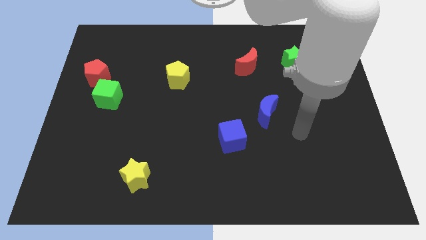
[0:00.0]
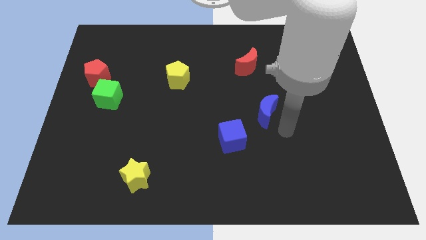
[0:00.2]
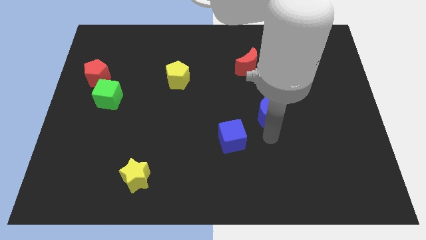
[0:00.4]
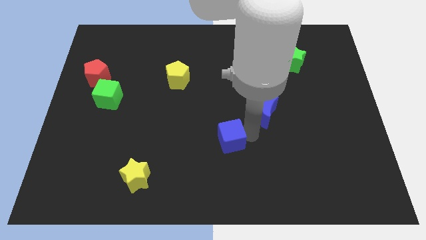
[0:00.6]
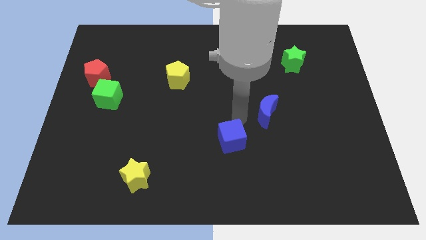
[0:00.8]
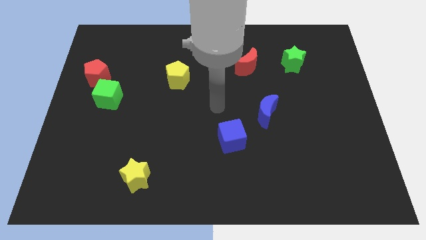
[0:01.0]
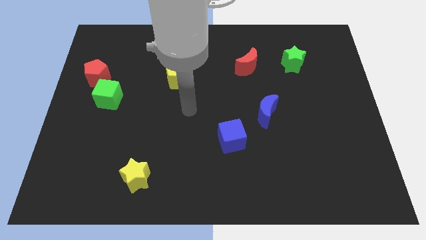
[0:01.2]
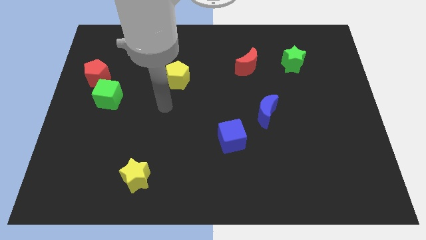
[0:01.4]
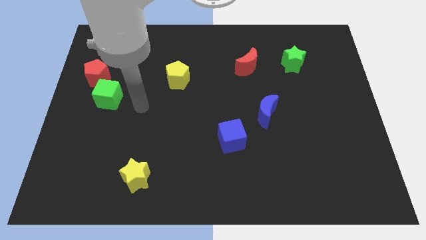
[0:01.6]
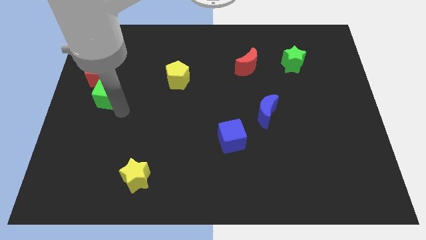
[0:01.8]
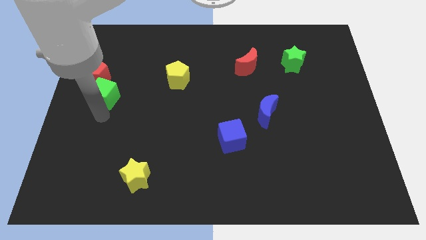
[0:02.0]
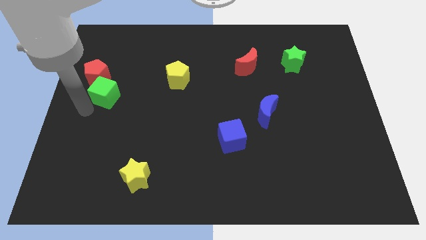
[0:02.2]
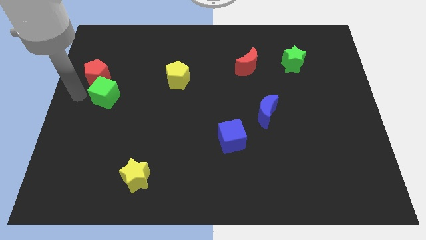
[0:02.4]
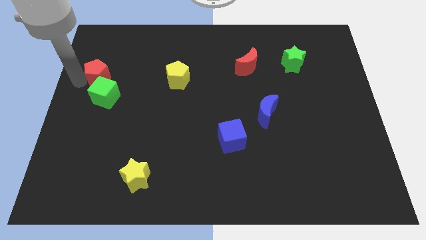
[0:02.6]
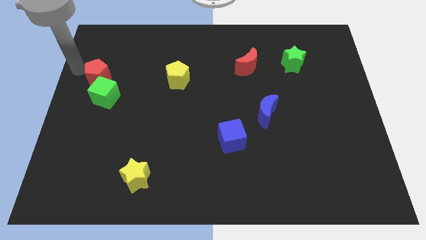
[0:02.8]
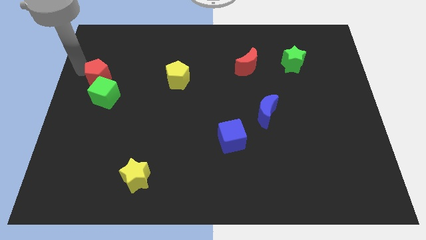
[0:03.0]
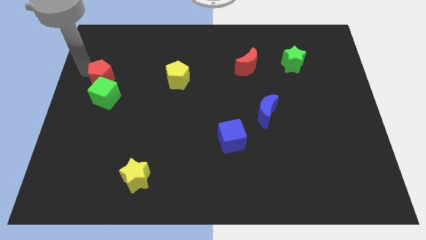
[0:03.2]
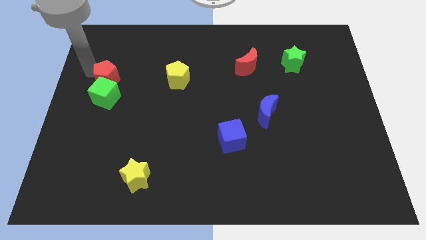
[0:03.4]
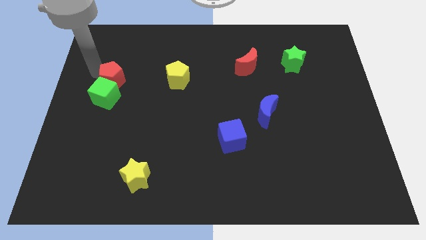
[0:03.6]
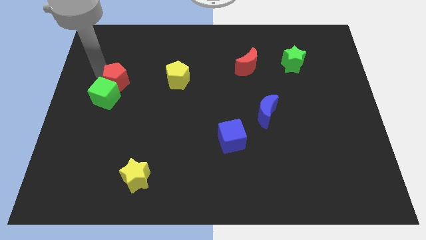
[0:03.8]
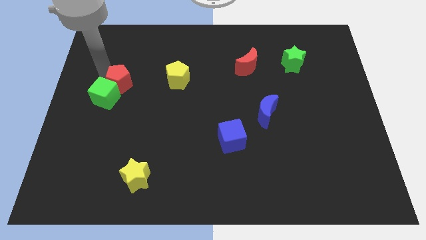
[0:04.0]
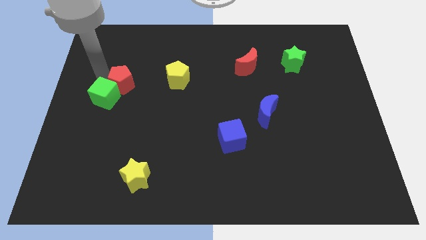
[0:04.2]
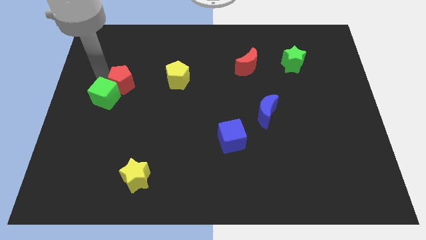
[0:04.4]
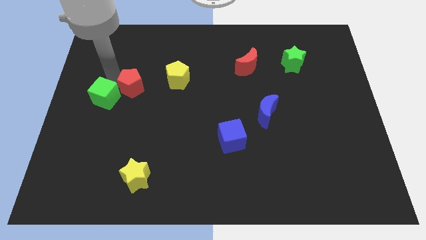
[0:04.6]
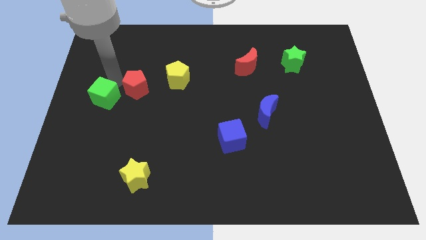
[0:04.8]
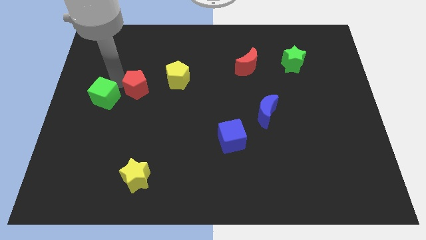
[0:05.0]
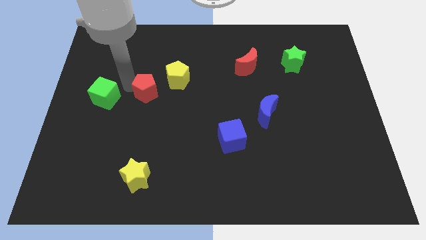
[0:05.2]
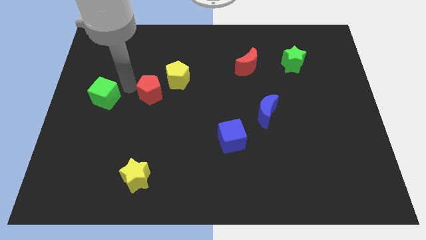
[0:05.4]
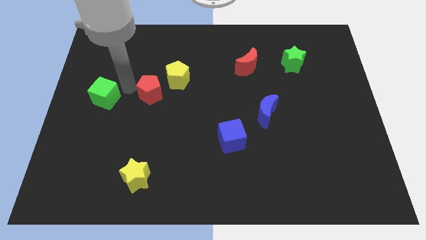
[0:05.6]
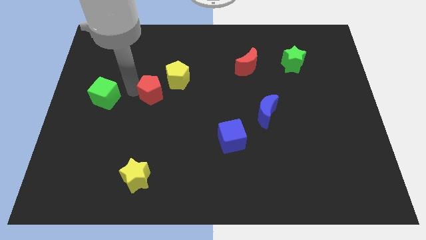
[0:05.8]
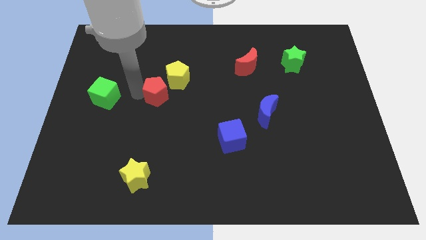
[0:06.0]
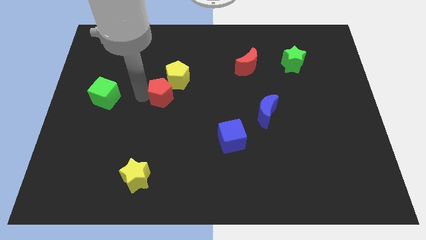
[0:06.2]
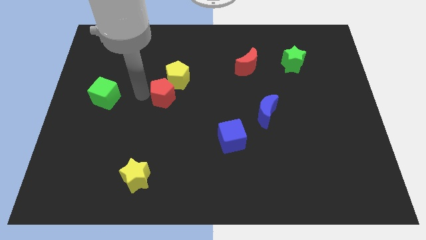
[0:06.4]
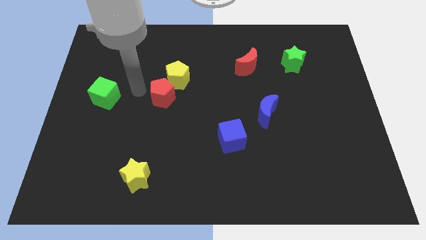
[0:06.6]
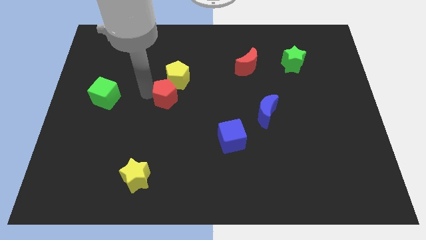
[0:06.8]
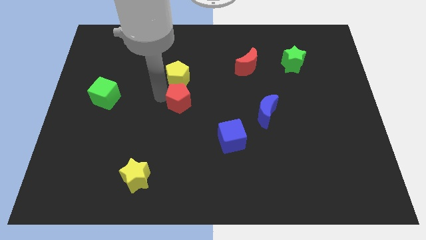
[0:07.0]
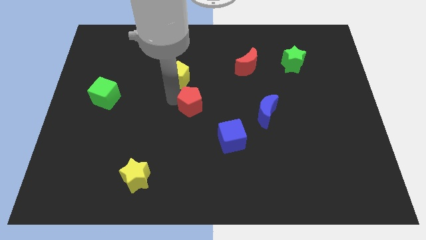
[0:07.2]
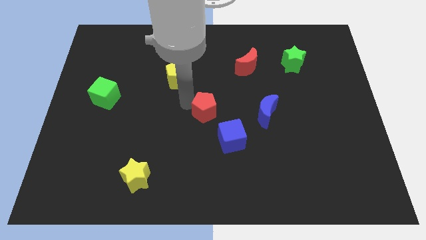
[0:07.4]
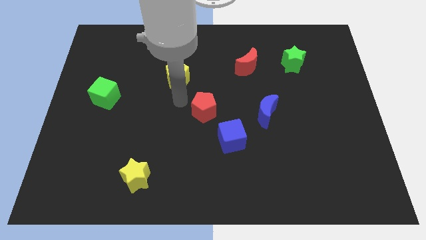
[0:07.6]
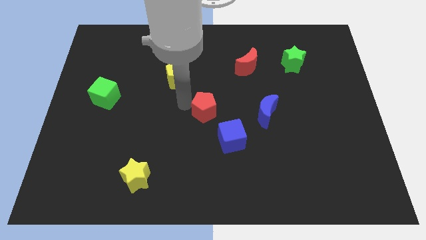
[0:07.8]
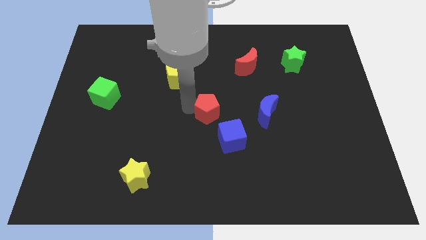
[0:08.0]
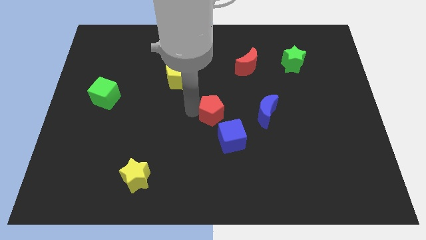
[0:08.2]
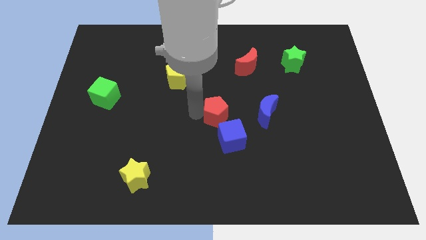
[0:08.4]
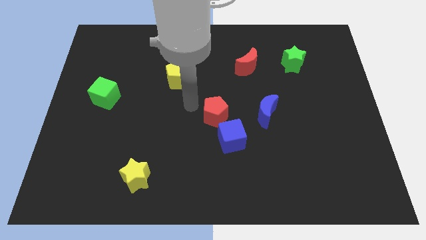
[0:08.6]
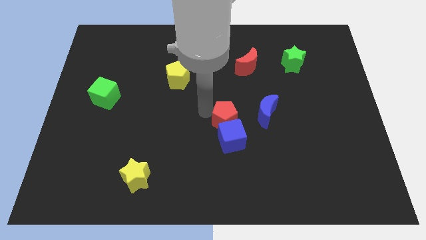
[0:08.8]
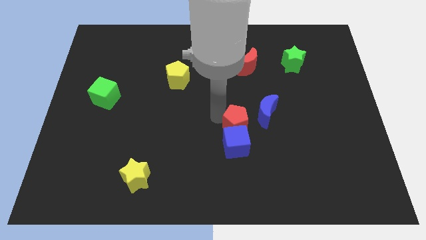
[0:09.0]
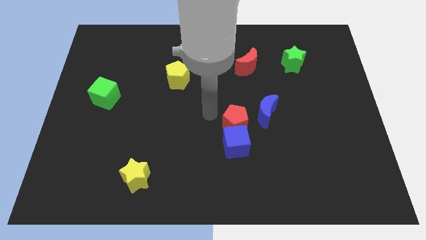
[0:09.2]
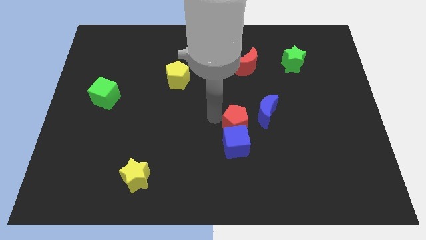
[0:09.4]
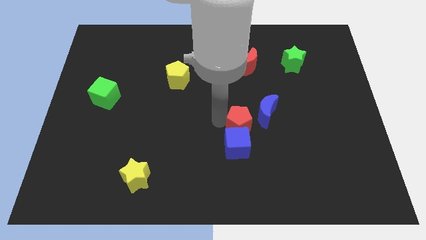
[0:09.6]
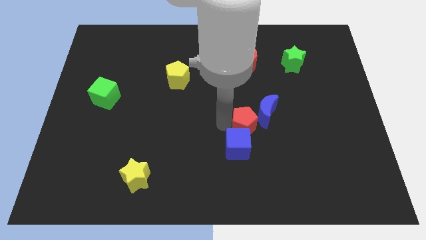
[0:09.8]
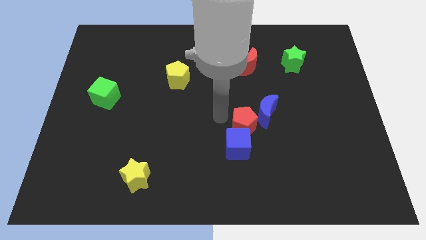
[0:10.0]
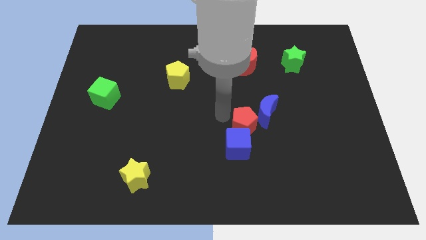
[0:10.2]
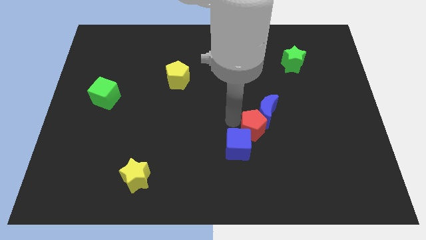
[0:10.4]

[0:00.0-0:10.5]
slide the red pentagon just right of the blue cube

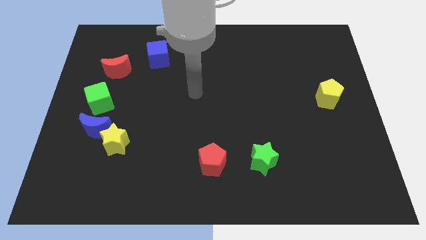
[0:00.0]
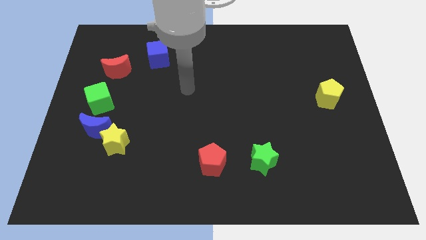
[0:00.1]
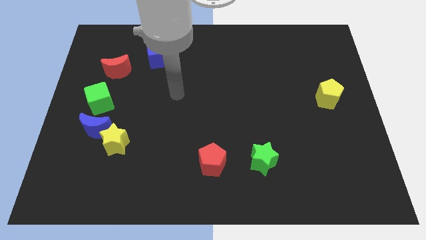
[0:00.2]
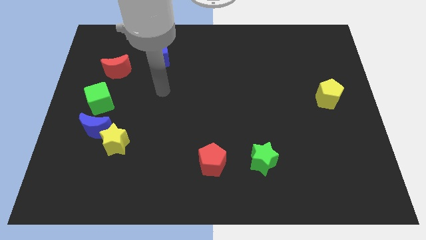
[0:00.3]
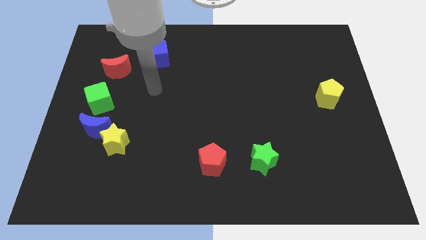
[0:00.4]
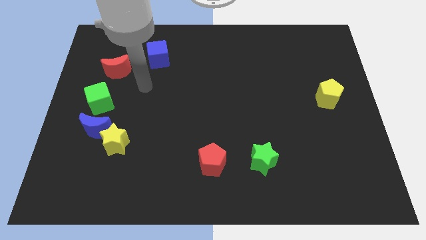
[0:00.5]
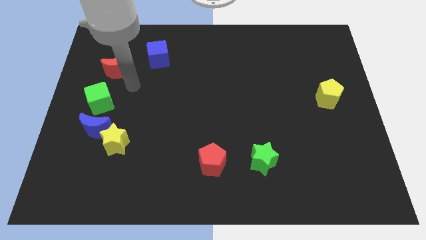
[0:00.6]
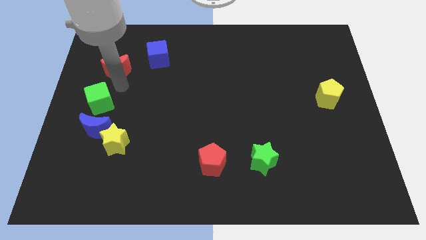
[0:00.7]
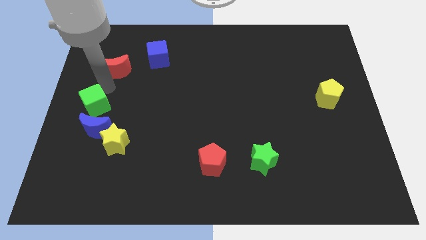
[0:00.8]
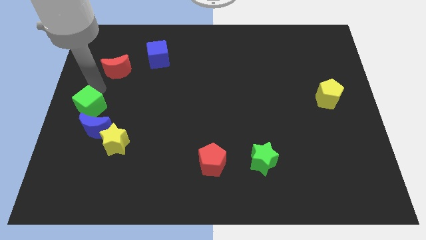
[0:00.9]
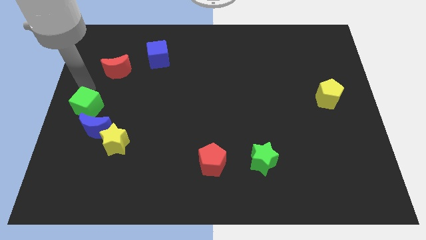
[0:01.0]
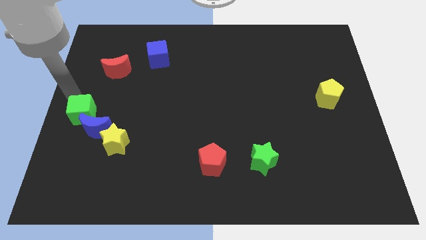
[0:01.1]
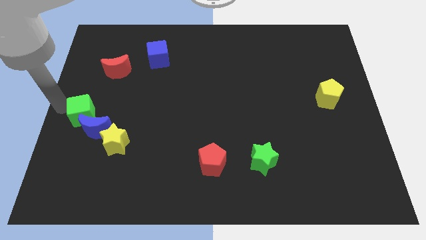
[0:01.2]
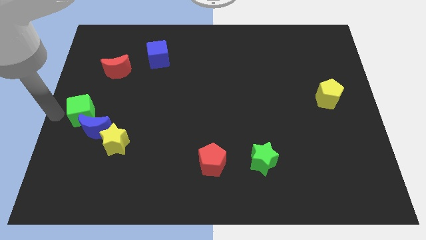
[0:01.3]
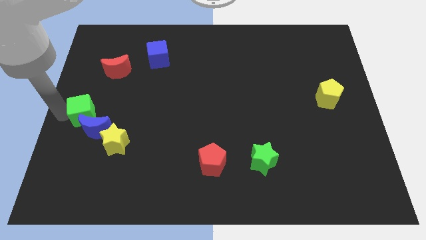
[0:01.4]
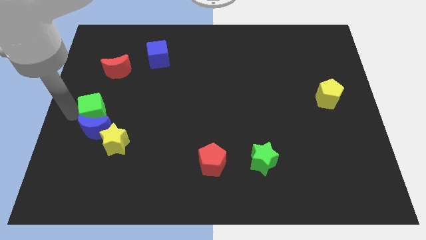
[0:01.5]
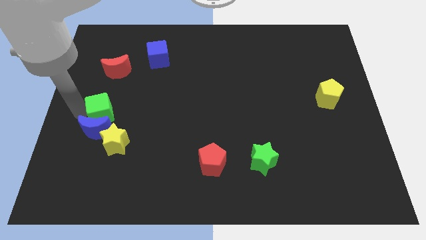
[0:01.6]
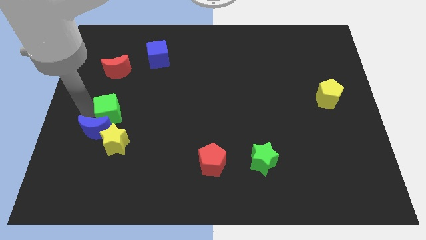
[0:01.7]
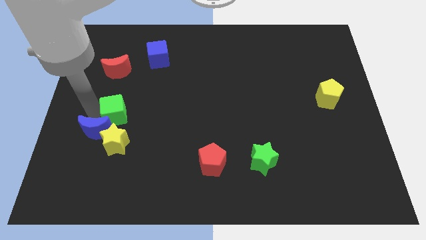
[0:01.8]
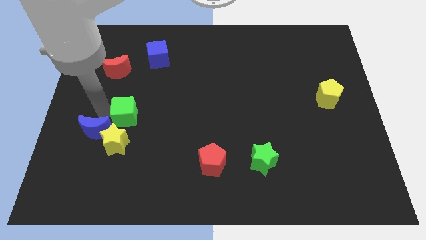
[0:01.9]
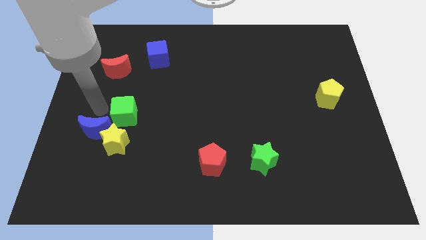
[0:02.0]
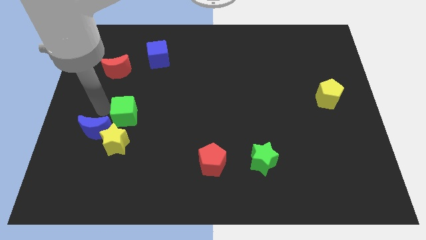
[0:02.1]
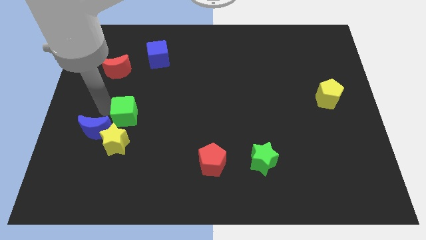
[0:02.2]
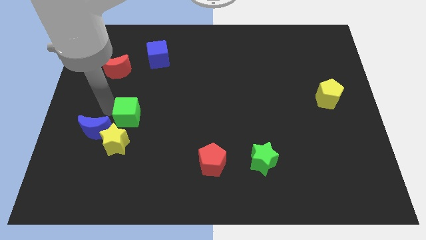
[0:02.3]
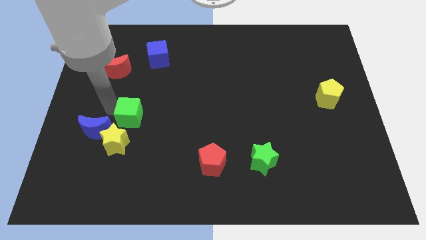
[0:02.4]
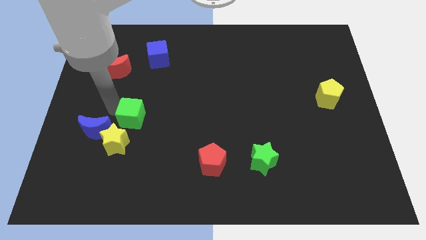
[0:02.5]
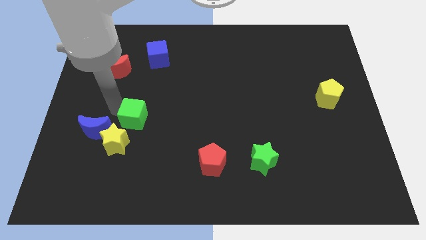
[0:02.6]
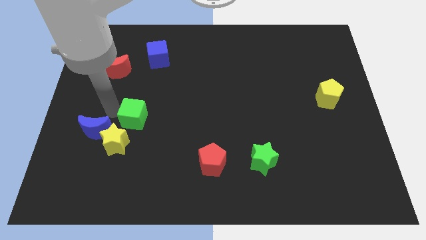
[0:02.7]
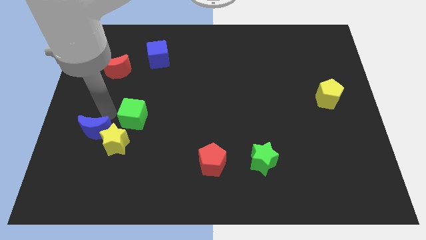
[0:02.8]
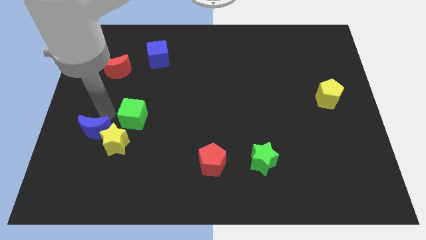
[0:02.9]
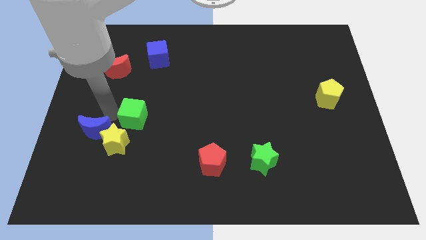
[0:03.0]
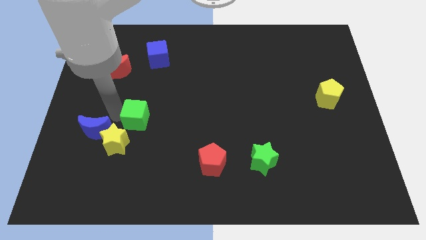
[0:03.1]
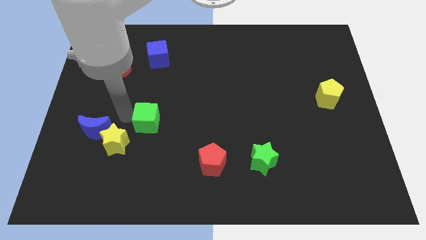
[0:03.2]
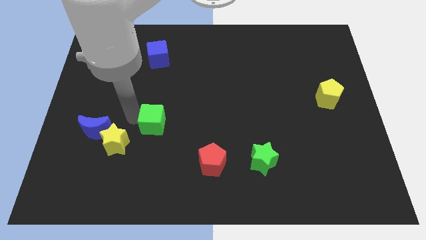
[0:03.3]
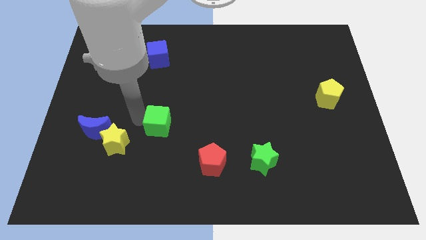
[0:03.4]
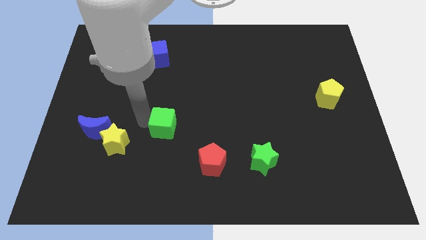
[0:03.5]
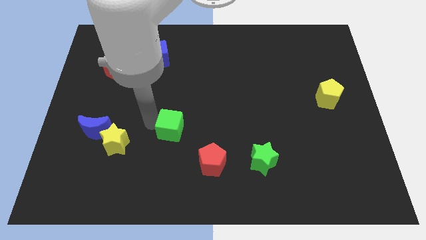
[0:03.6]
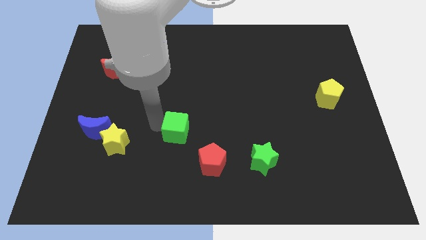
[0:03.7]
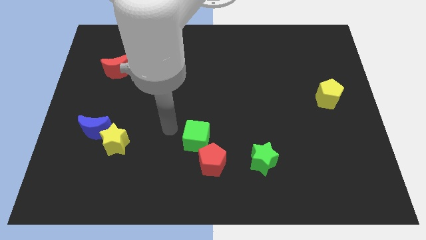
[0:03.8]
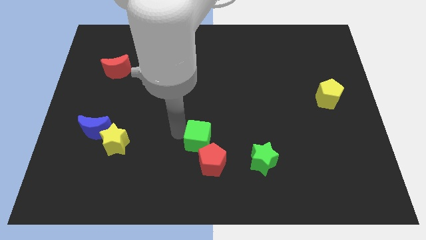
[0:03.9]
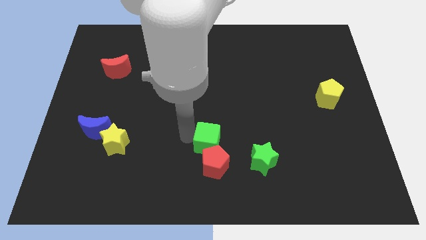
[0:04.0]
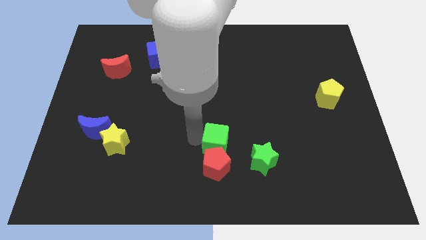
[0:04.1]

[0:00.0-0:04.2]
slide the green cube diagonally up and to the right of the red pentagon
